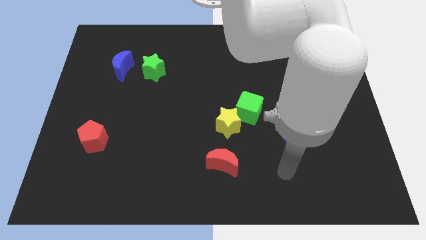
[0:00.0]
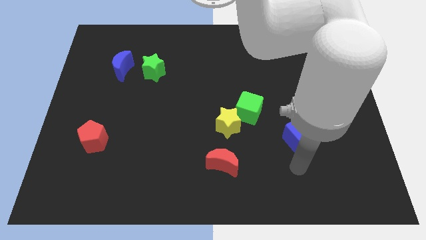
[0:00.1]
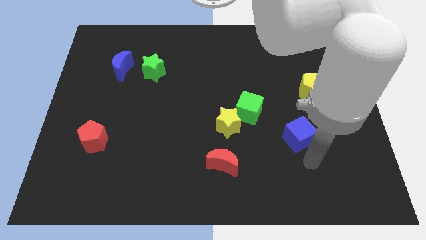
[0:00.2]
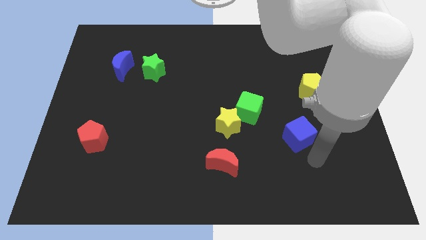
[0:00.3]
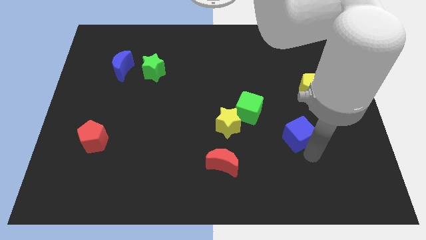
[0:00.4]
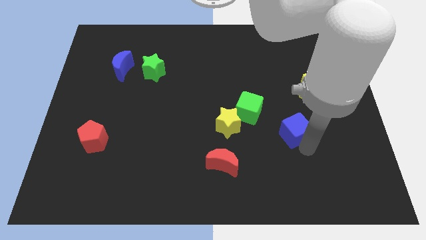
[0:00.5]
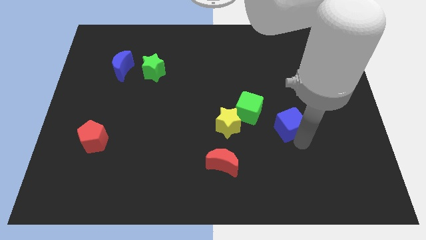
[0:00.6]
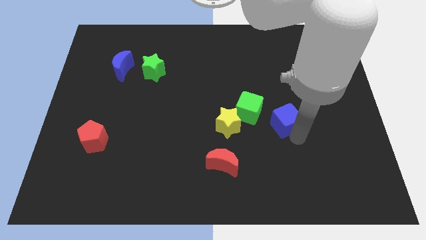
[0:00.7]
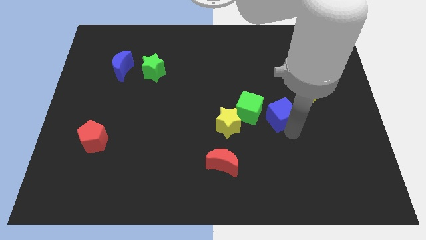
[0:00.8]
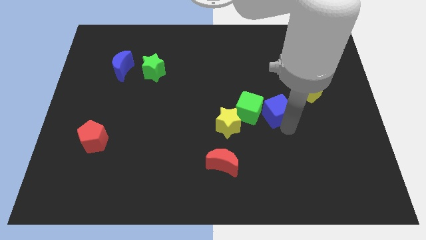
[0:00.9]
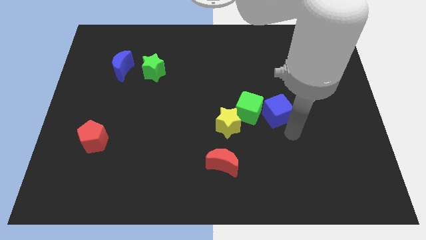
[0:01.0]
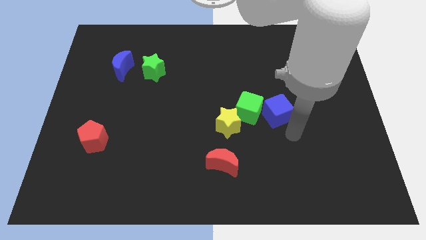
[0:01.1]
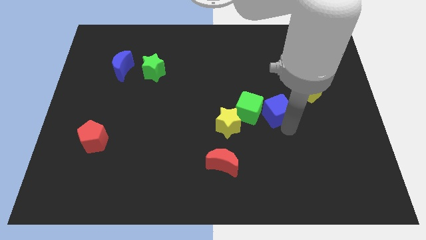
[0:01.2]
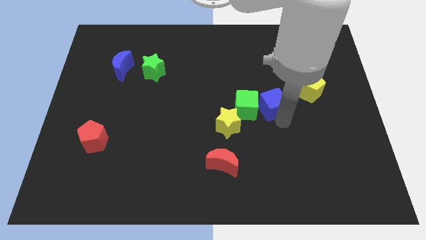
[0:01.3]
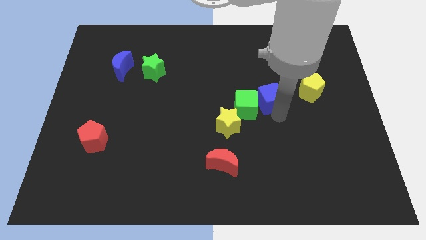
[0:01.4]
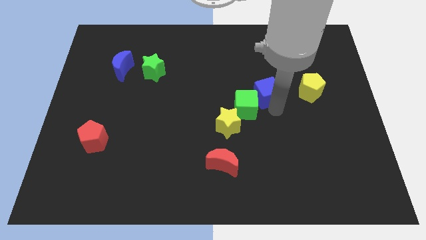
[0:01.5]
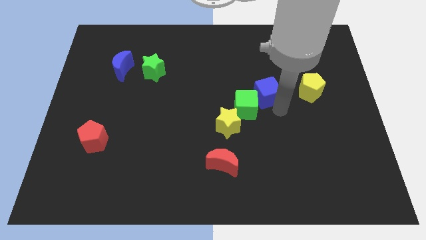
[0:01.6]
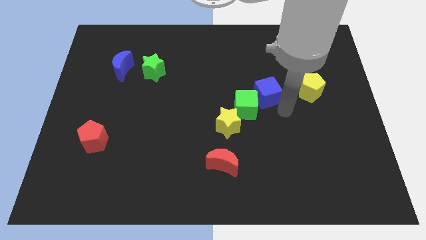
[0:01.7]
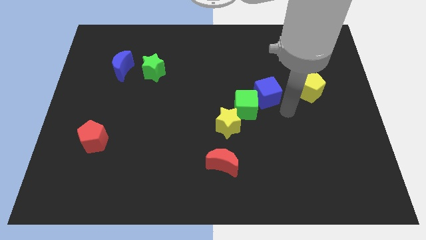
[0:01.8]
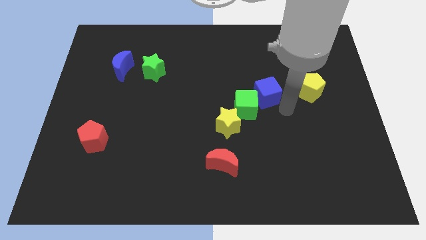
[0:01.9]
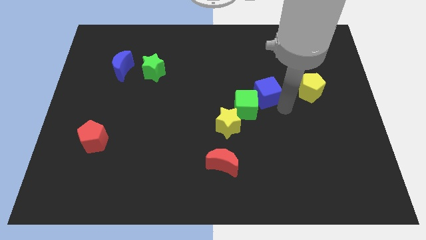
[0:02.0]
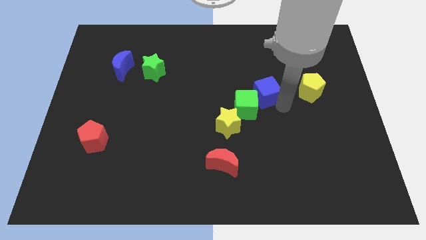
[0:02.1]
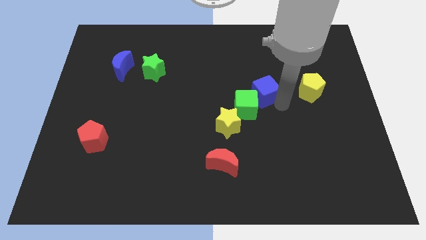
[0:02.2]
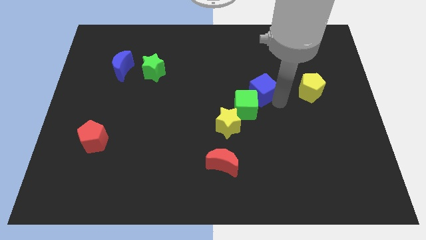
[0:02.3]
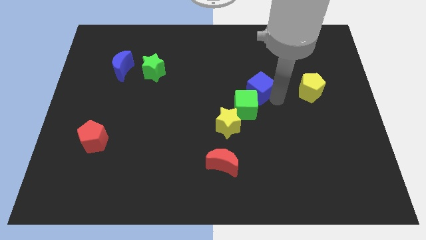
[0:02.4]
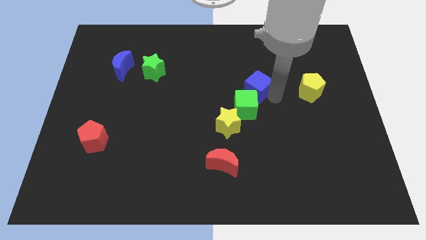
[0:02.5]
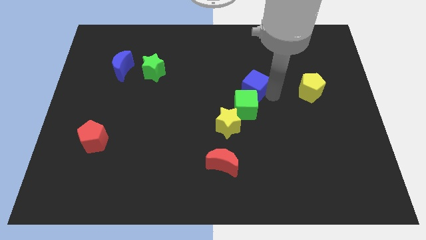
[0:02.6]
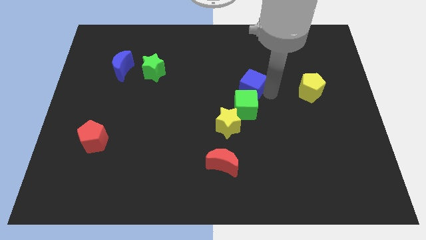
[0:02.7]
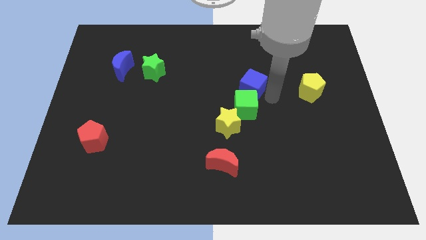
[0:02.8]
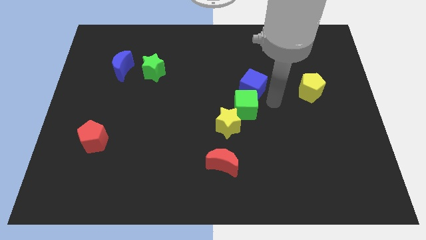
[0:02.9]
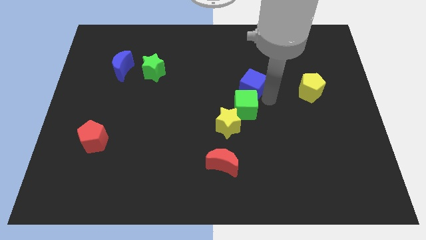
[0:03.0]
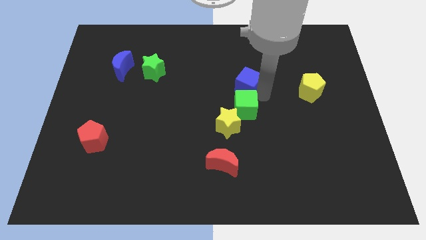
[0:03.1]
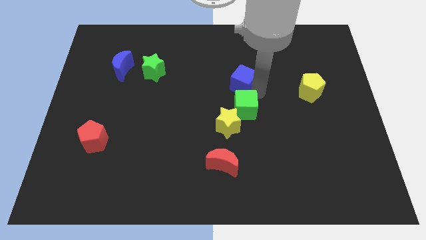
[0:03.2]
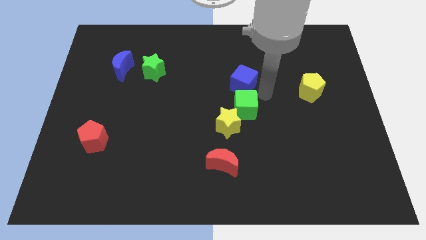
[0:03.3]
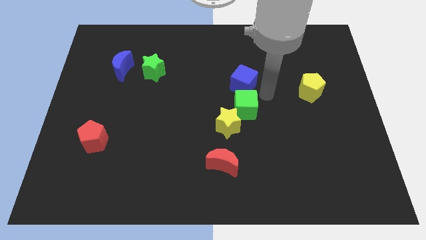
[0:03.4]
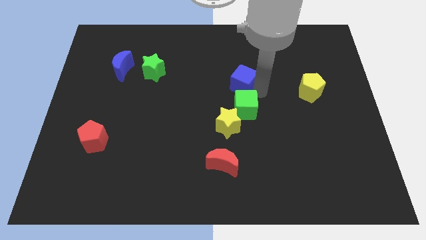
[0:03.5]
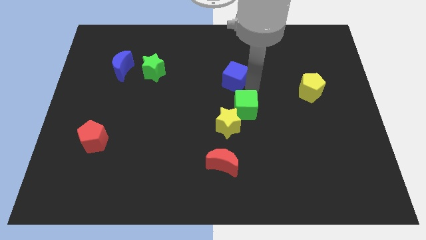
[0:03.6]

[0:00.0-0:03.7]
push the blue cube upwards and left diagonally

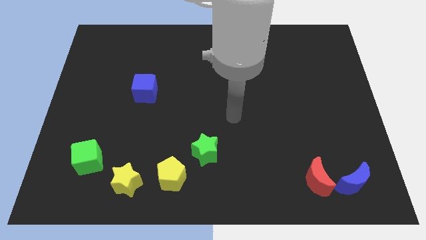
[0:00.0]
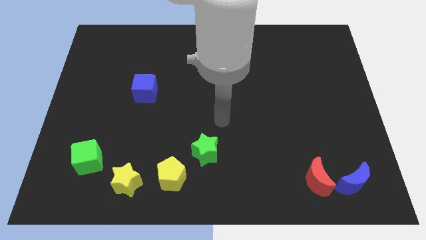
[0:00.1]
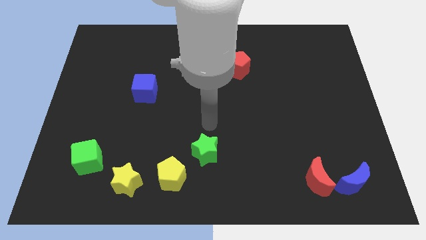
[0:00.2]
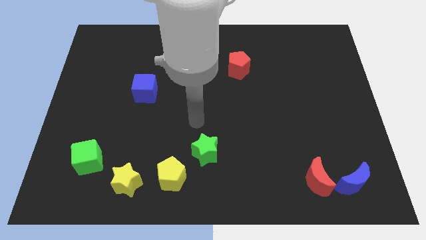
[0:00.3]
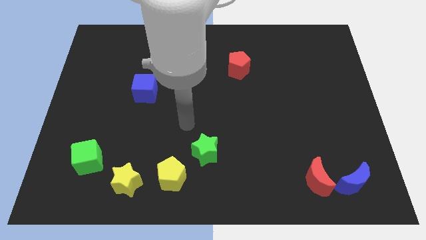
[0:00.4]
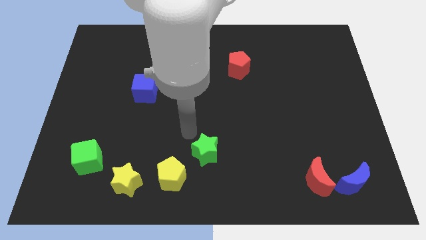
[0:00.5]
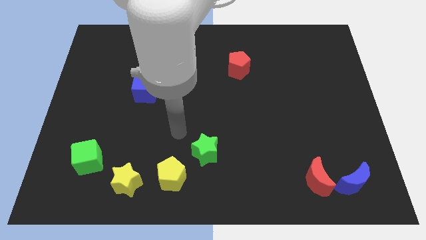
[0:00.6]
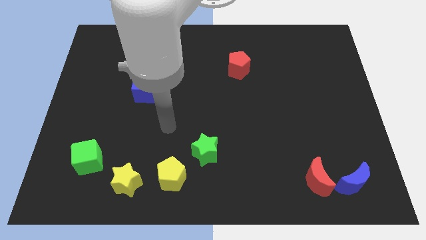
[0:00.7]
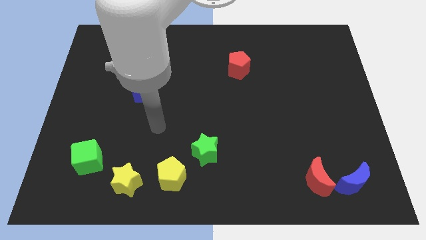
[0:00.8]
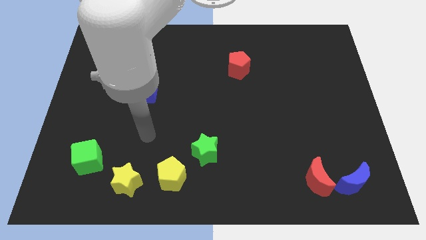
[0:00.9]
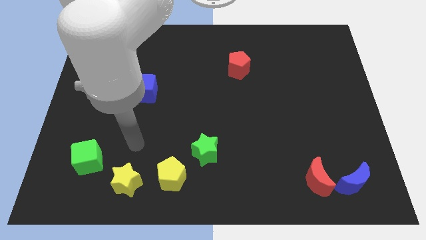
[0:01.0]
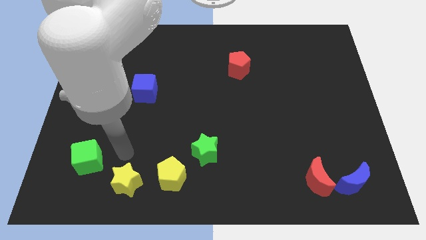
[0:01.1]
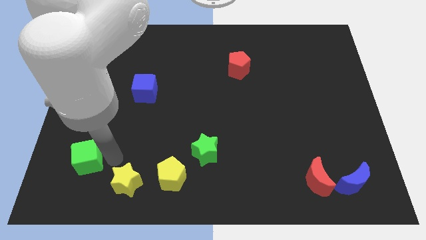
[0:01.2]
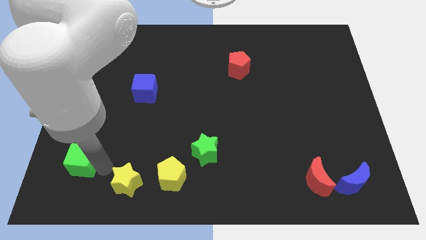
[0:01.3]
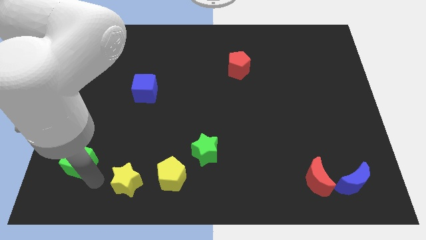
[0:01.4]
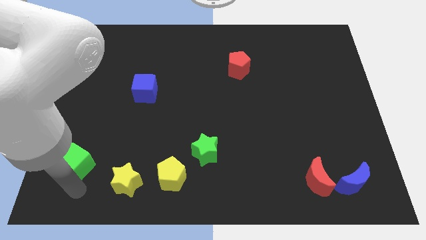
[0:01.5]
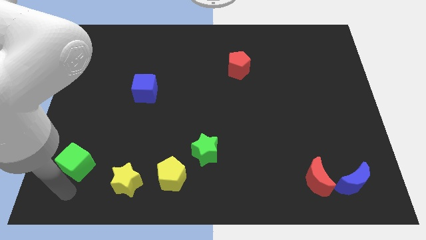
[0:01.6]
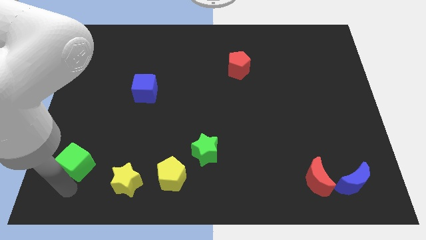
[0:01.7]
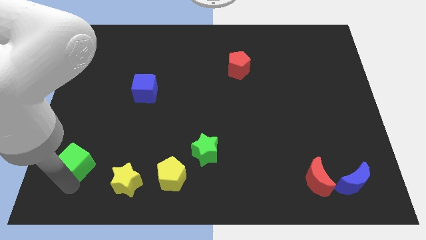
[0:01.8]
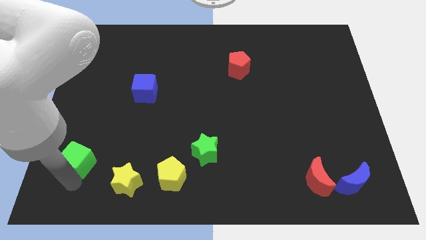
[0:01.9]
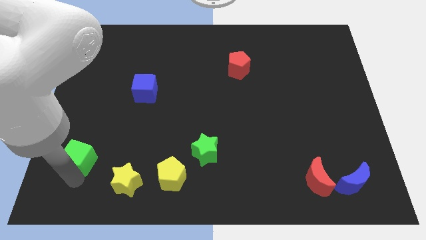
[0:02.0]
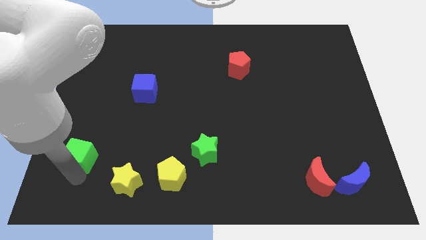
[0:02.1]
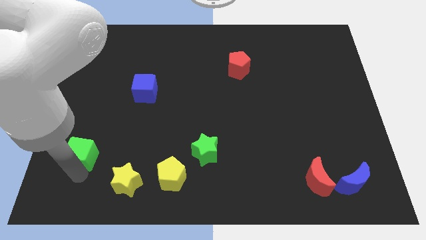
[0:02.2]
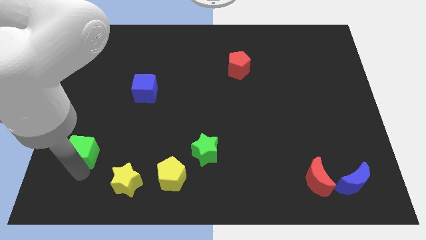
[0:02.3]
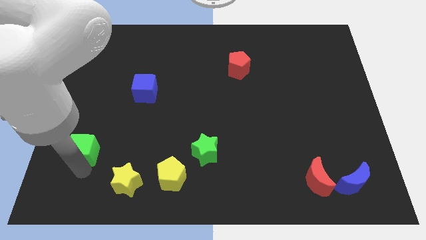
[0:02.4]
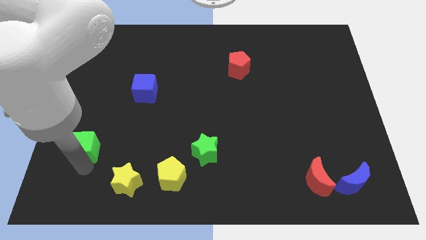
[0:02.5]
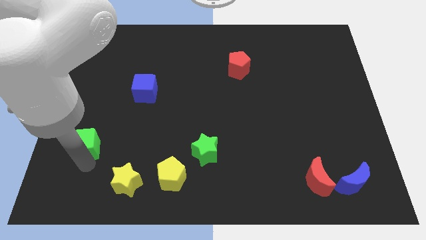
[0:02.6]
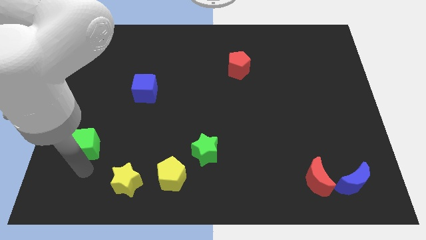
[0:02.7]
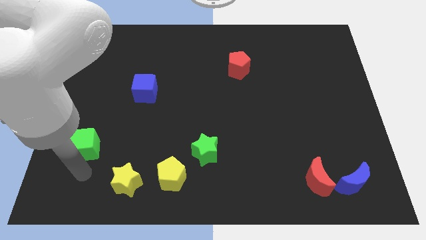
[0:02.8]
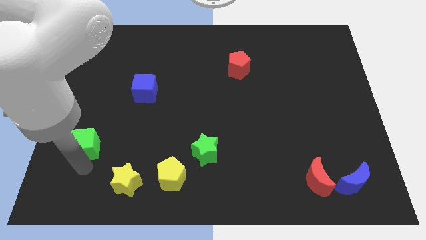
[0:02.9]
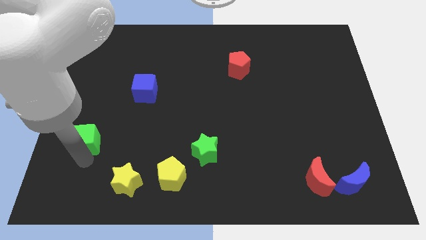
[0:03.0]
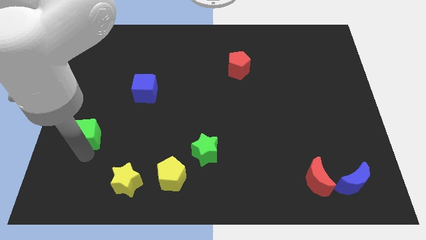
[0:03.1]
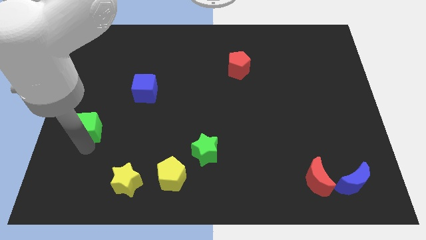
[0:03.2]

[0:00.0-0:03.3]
push the green cube upwards slightly

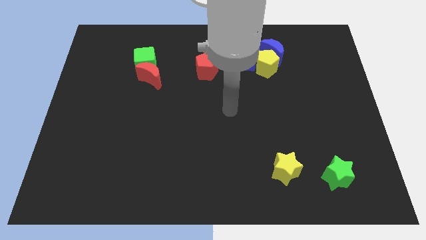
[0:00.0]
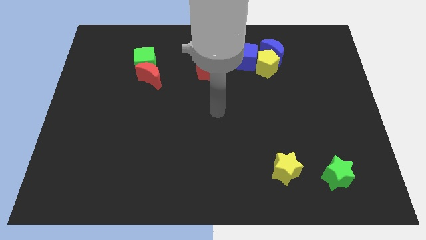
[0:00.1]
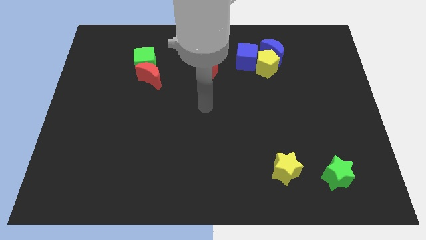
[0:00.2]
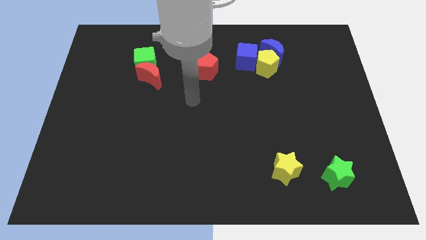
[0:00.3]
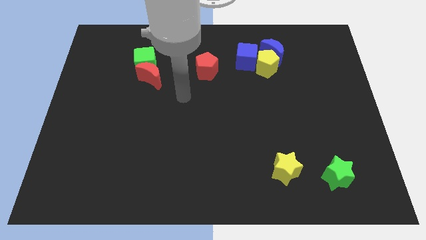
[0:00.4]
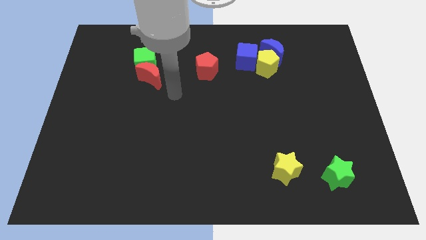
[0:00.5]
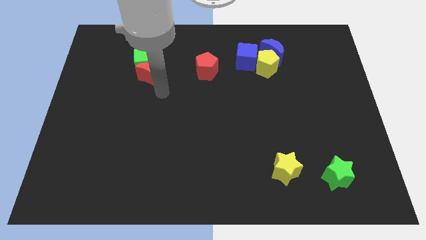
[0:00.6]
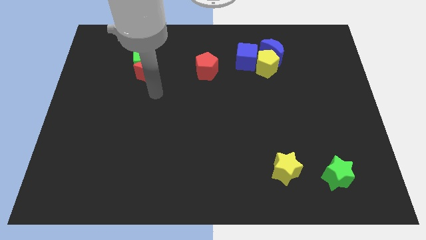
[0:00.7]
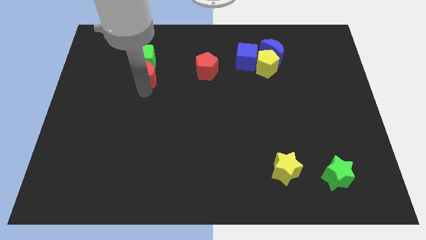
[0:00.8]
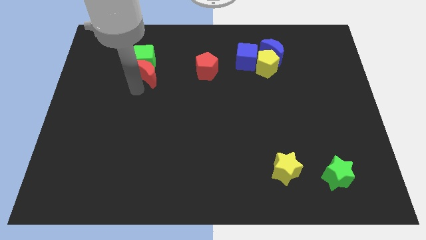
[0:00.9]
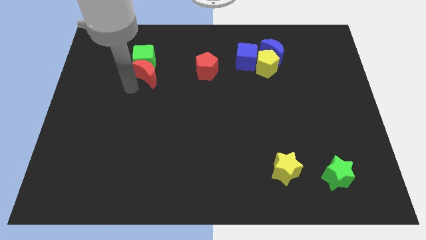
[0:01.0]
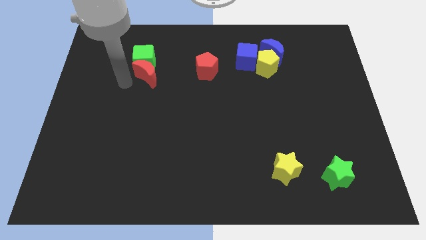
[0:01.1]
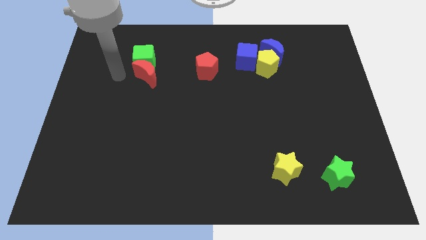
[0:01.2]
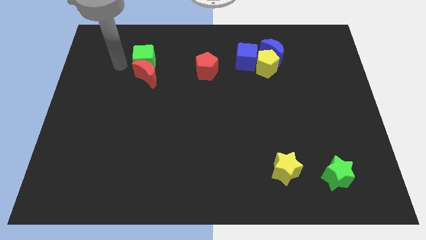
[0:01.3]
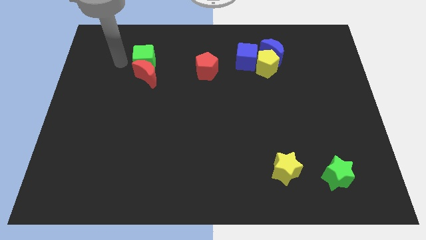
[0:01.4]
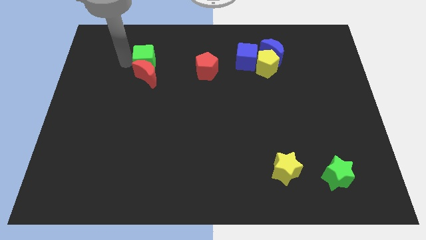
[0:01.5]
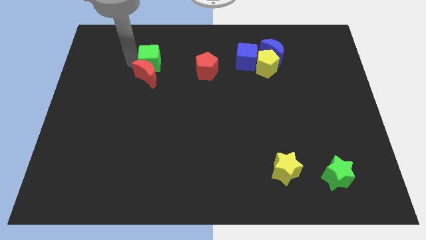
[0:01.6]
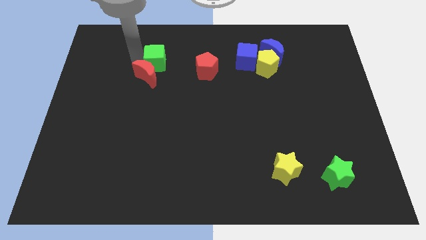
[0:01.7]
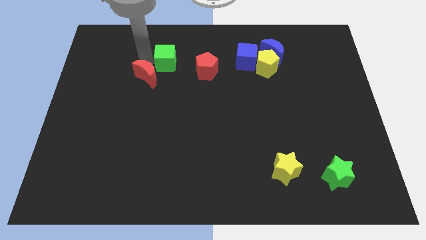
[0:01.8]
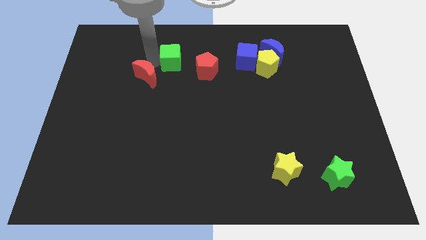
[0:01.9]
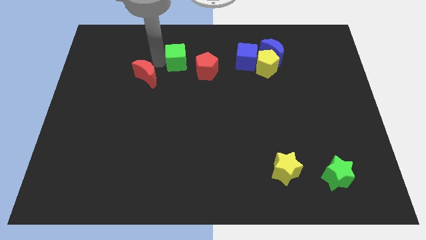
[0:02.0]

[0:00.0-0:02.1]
slightly slide the green cube right
